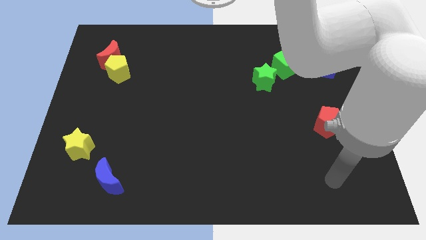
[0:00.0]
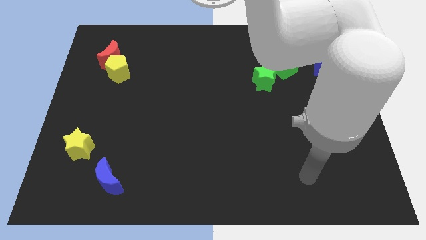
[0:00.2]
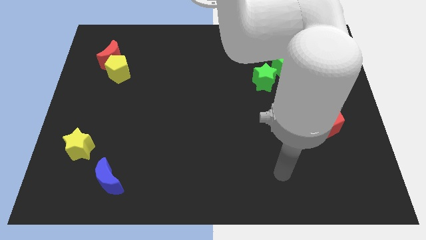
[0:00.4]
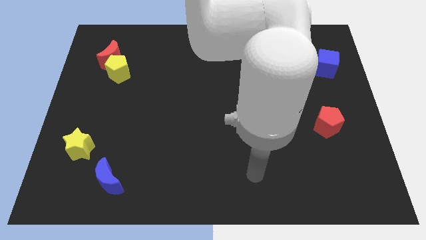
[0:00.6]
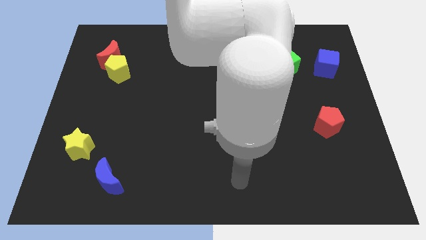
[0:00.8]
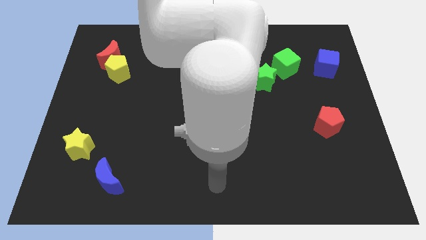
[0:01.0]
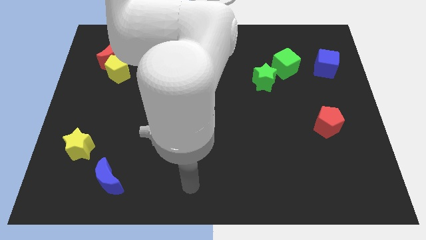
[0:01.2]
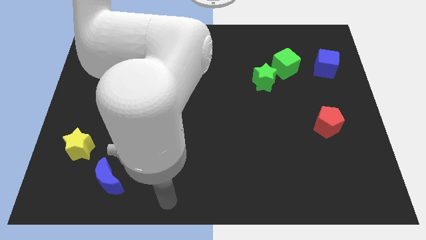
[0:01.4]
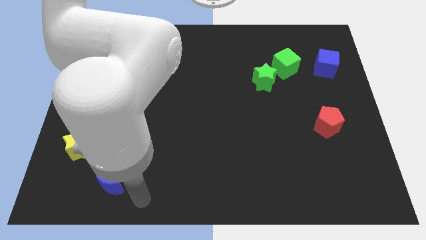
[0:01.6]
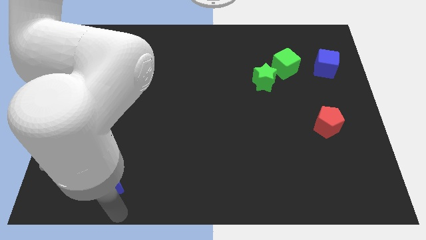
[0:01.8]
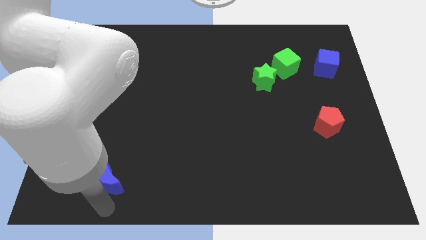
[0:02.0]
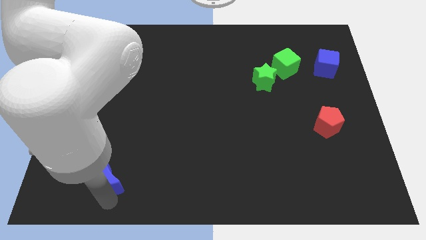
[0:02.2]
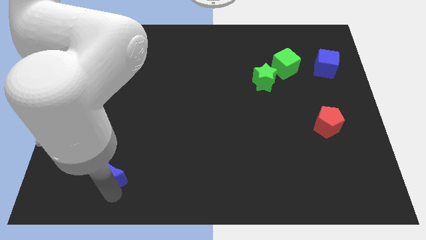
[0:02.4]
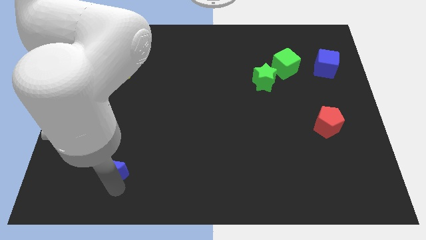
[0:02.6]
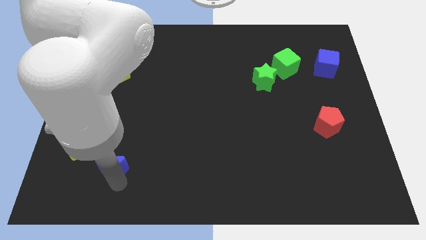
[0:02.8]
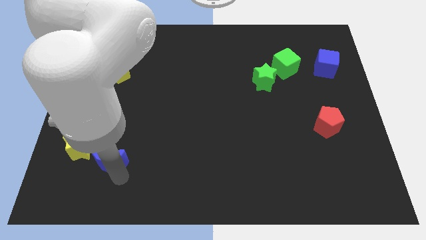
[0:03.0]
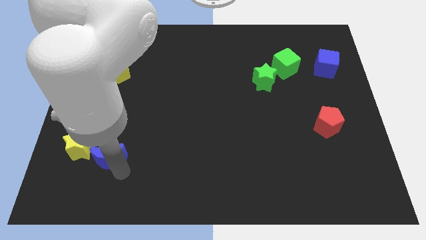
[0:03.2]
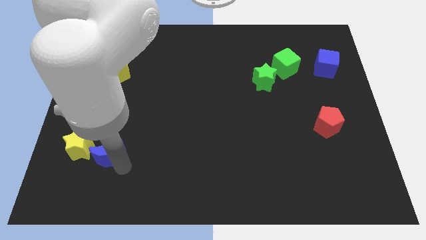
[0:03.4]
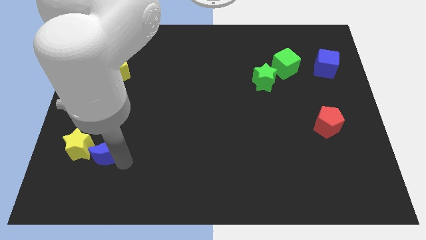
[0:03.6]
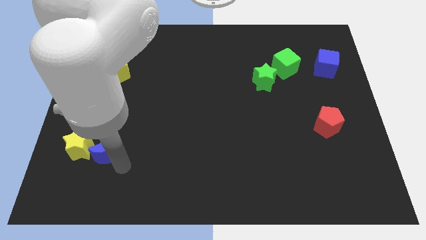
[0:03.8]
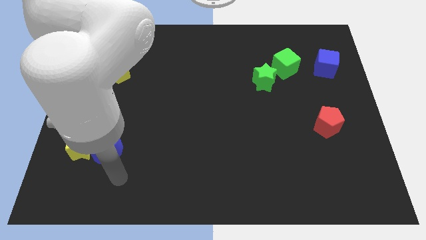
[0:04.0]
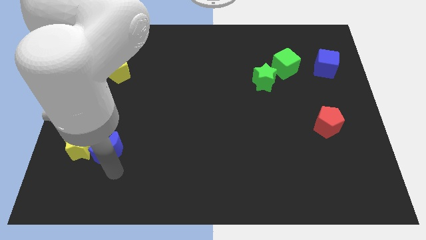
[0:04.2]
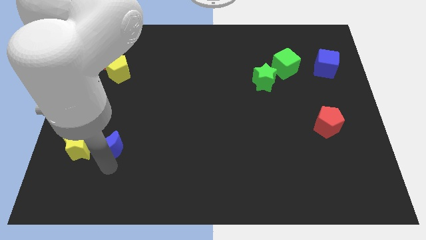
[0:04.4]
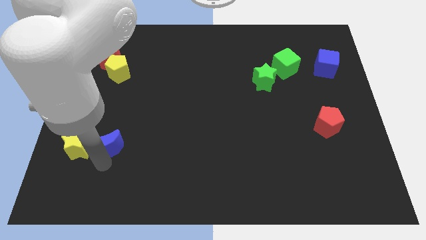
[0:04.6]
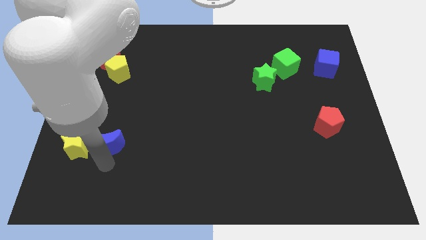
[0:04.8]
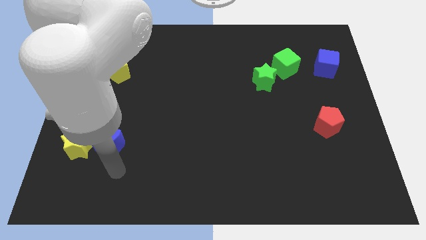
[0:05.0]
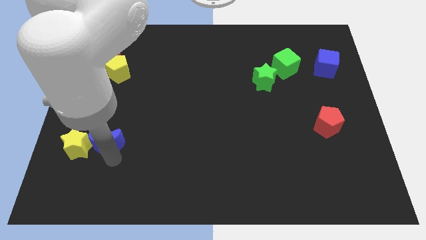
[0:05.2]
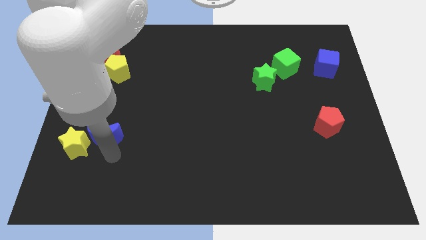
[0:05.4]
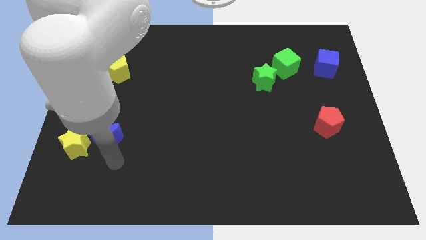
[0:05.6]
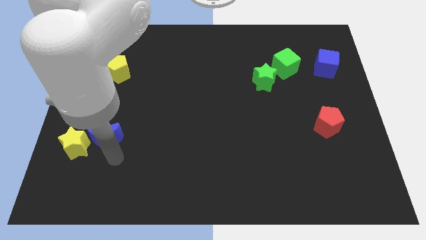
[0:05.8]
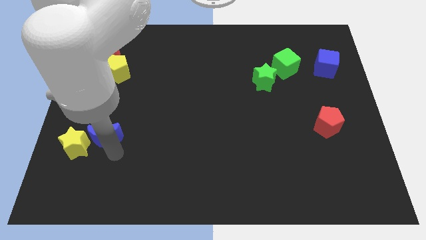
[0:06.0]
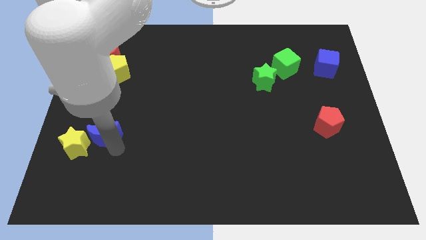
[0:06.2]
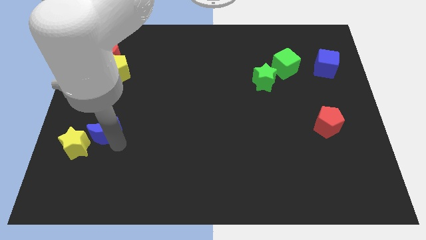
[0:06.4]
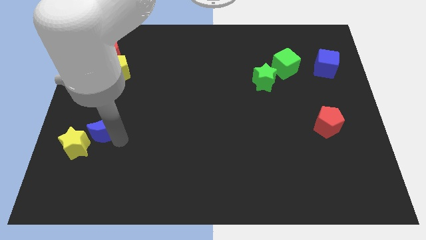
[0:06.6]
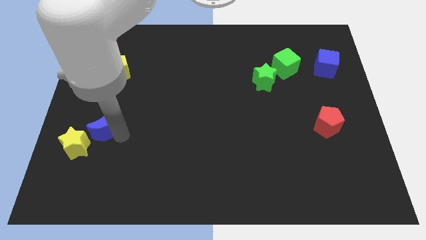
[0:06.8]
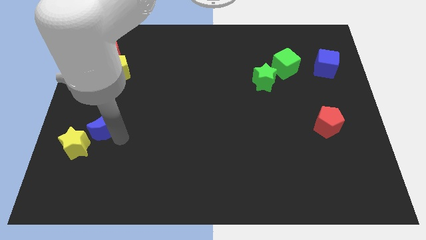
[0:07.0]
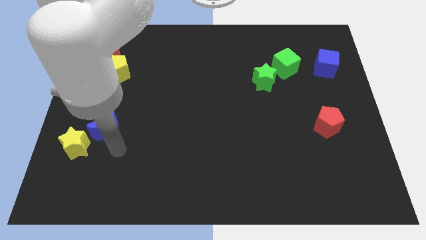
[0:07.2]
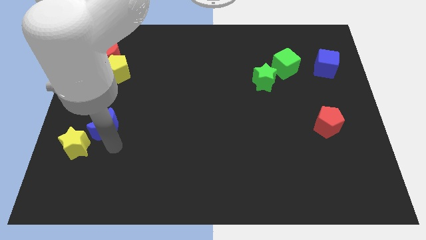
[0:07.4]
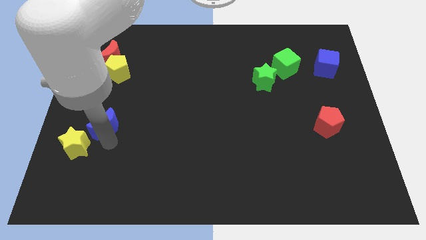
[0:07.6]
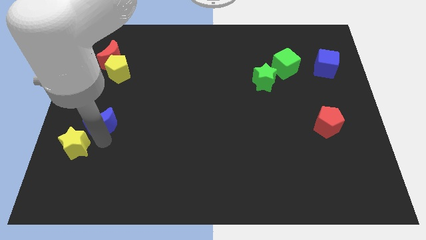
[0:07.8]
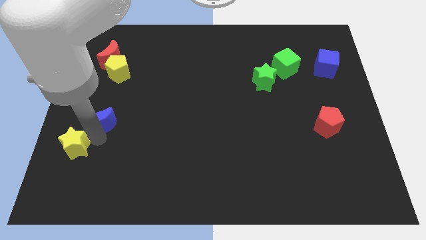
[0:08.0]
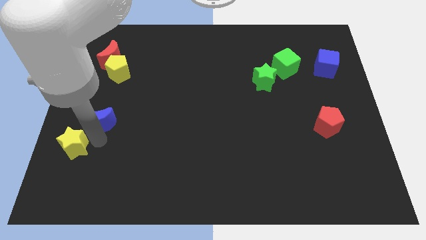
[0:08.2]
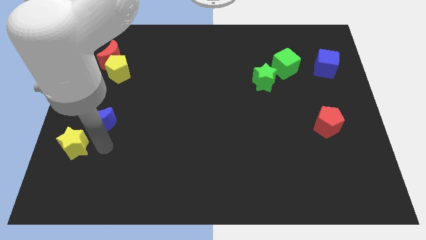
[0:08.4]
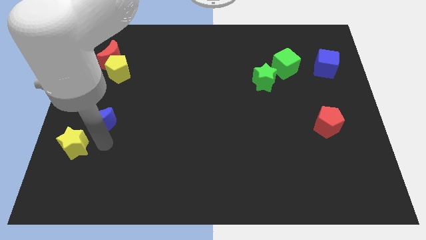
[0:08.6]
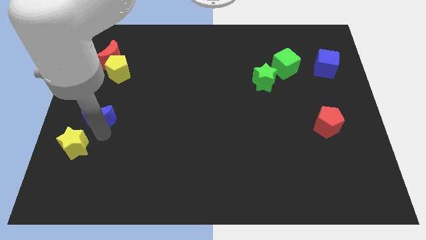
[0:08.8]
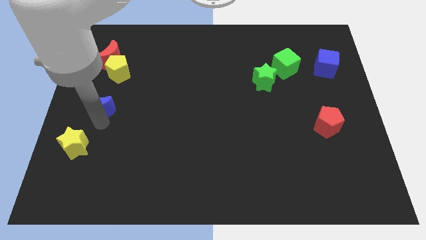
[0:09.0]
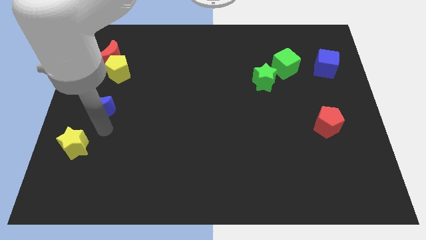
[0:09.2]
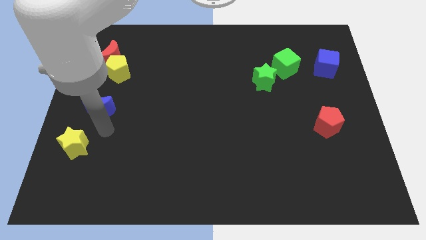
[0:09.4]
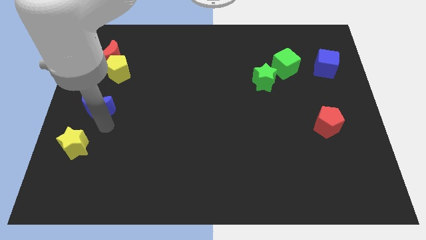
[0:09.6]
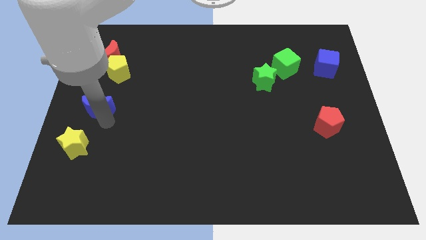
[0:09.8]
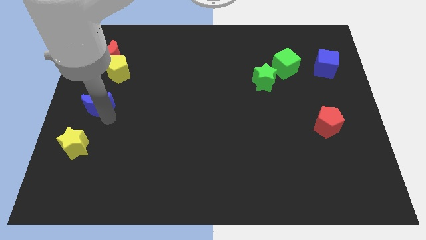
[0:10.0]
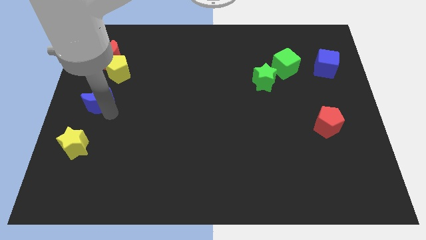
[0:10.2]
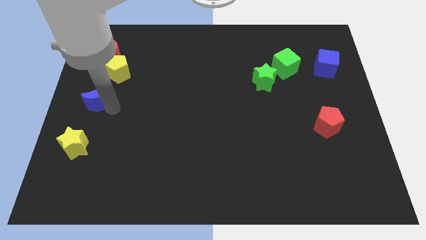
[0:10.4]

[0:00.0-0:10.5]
push the blue moon to the bottom left side of the yellow pentagon

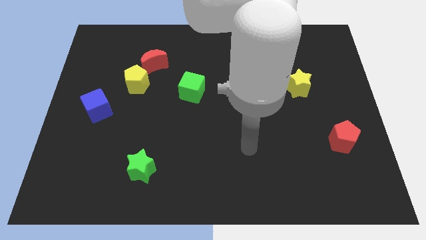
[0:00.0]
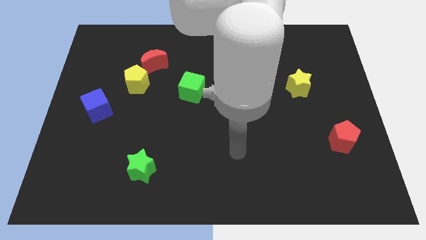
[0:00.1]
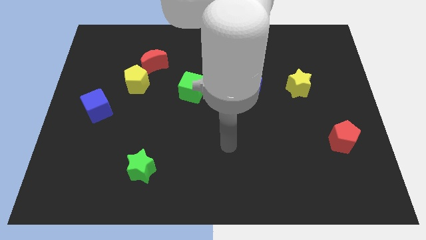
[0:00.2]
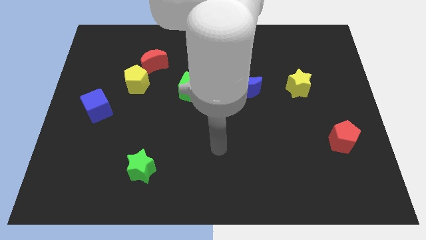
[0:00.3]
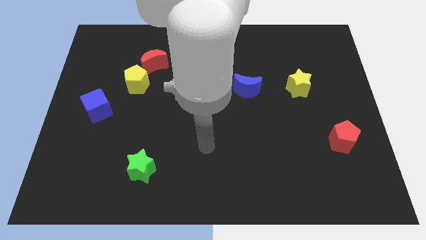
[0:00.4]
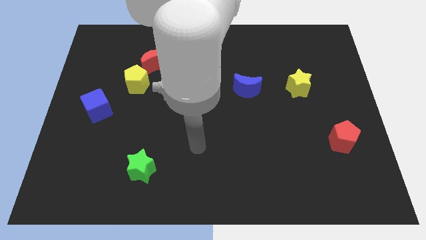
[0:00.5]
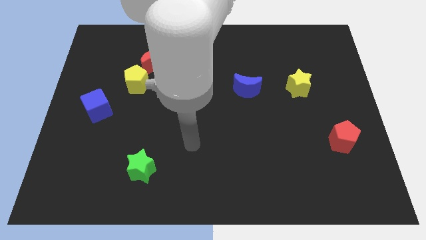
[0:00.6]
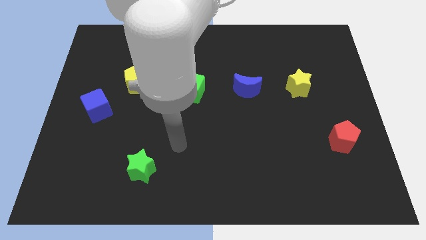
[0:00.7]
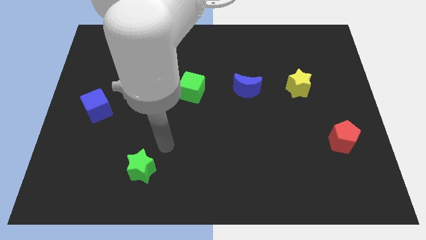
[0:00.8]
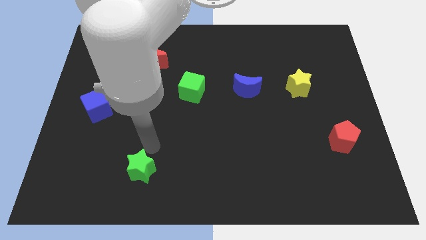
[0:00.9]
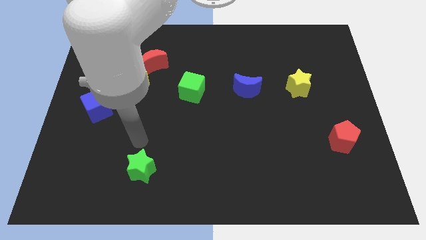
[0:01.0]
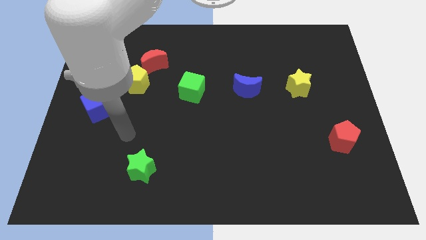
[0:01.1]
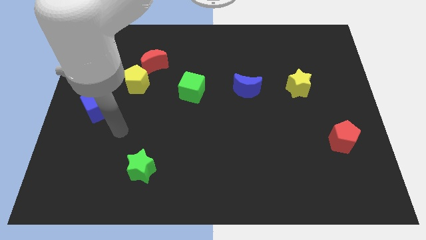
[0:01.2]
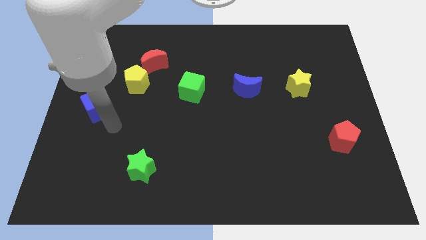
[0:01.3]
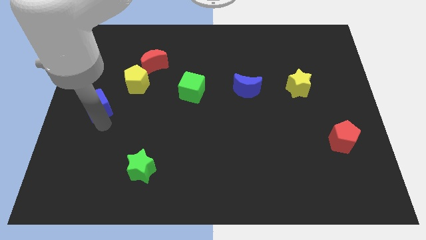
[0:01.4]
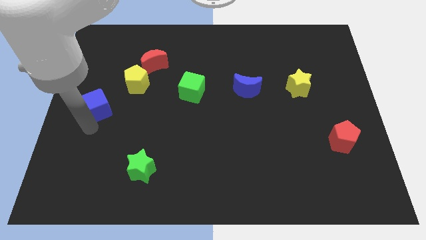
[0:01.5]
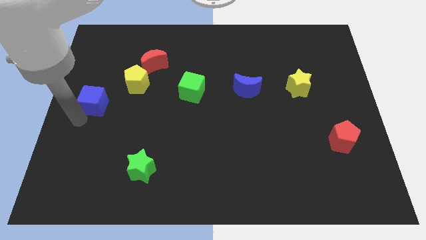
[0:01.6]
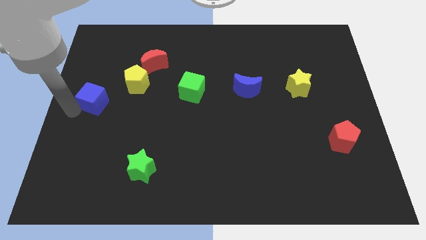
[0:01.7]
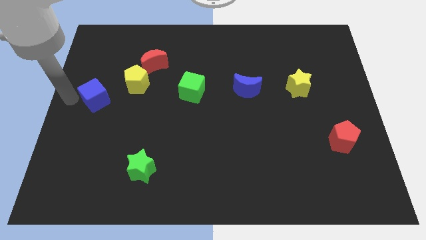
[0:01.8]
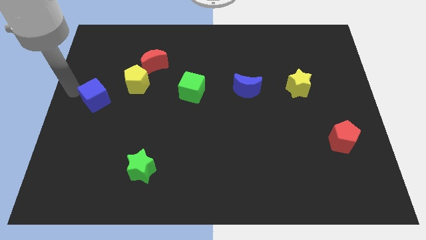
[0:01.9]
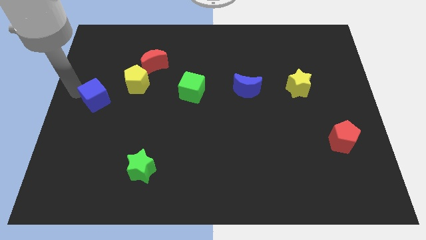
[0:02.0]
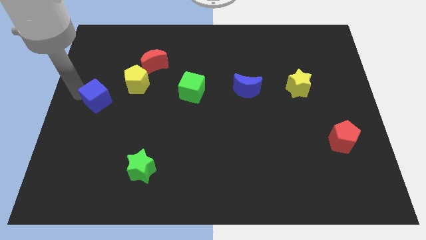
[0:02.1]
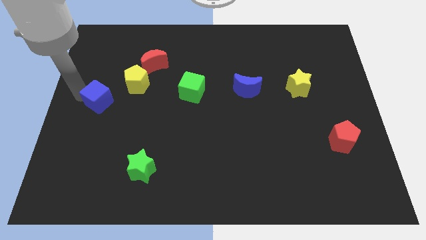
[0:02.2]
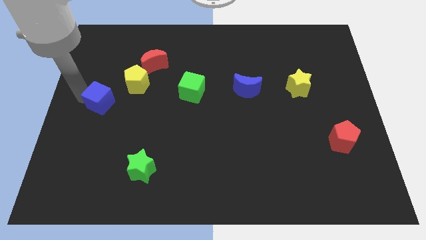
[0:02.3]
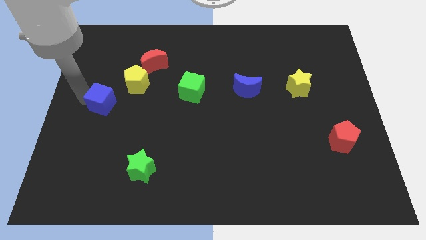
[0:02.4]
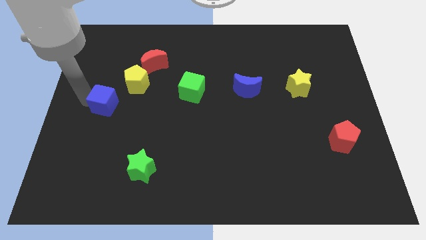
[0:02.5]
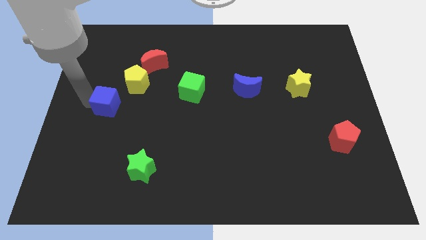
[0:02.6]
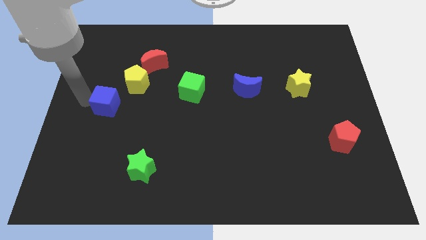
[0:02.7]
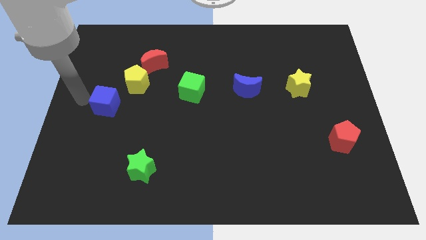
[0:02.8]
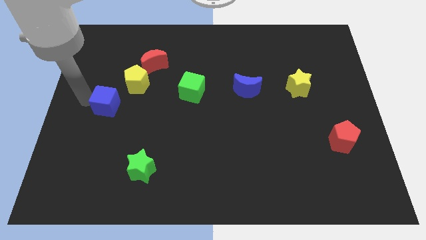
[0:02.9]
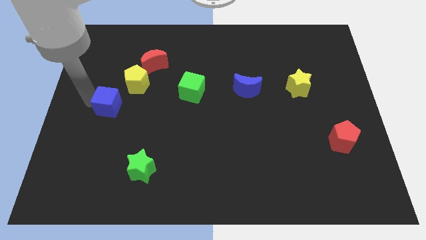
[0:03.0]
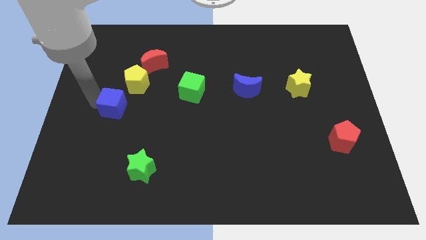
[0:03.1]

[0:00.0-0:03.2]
slide the blue cube to the bottom of the yellow pentagon
